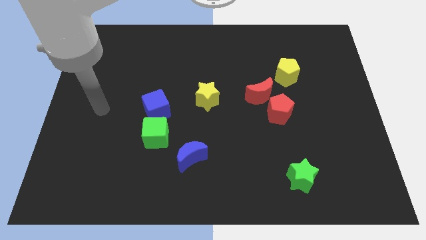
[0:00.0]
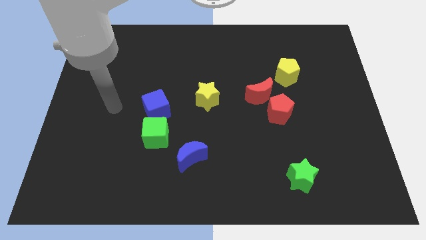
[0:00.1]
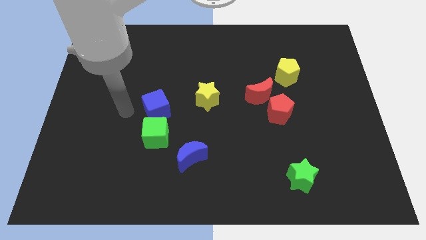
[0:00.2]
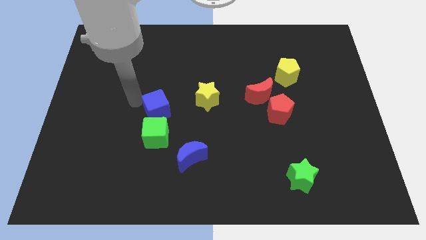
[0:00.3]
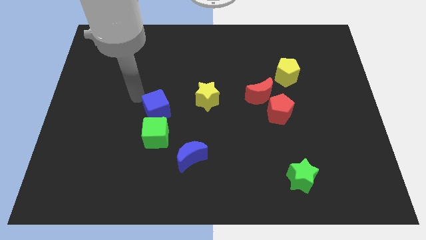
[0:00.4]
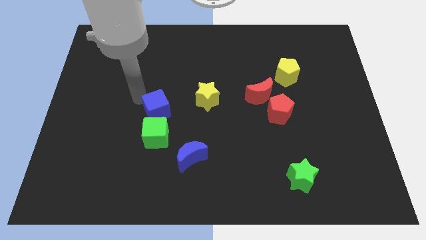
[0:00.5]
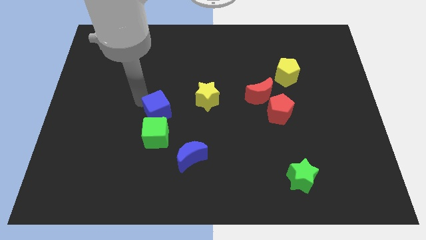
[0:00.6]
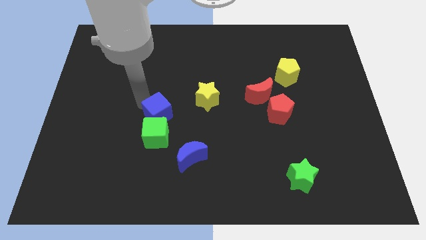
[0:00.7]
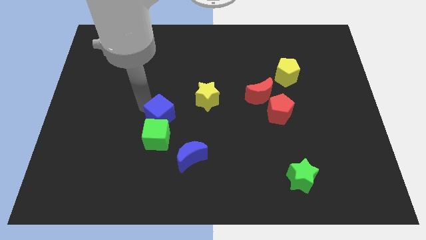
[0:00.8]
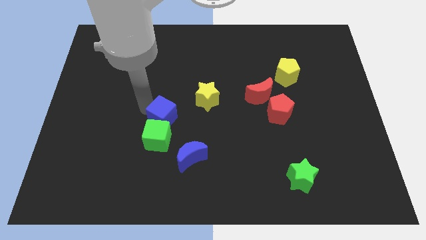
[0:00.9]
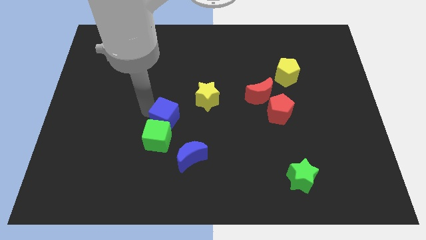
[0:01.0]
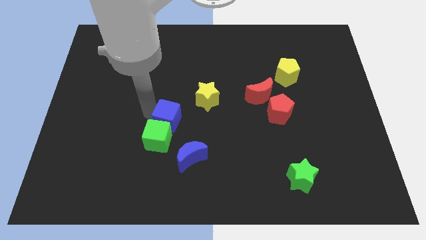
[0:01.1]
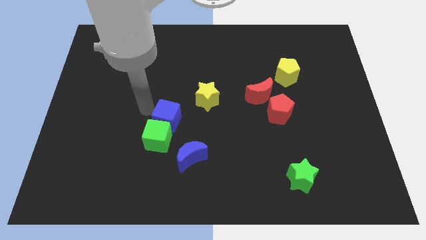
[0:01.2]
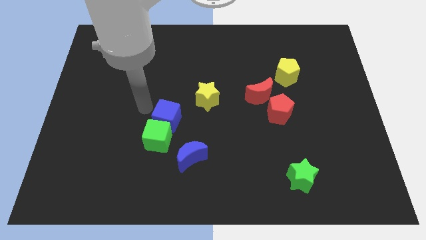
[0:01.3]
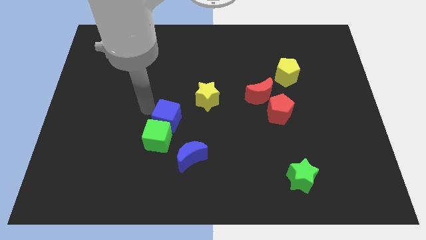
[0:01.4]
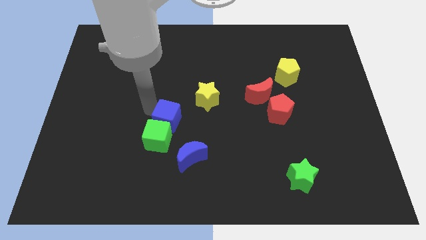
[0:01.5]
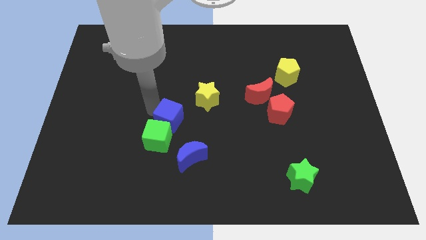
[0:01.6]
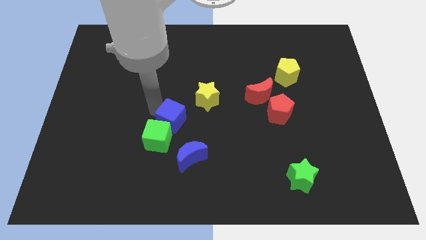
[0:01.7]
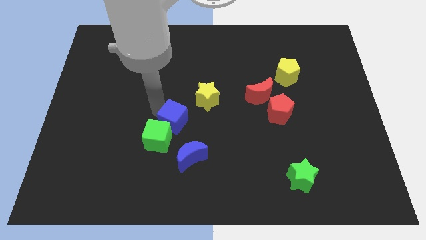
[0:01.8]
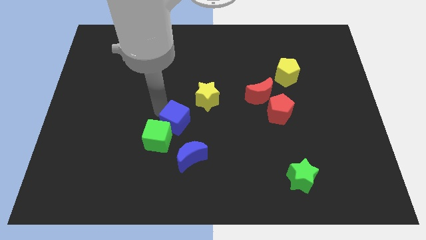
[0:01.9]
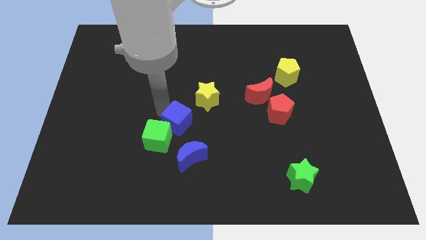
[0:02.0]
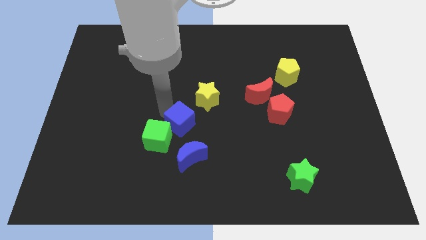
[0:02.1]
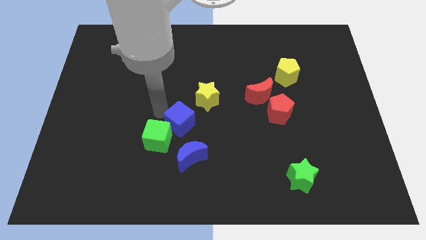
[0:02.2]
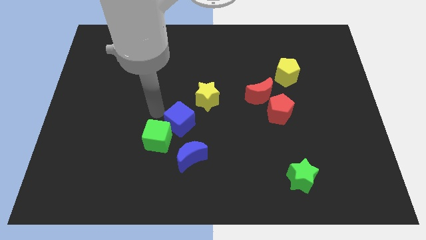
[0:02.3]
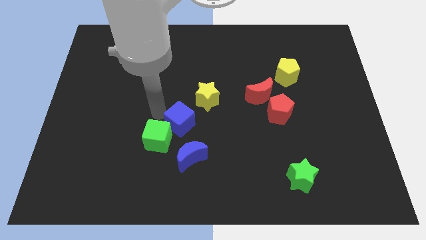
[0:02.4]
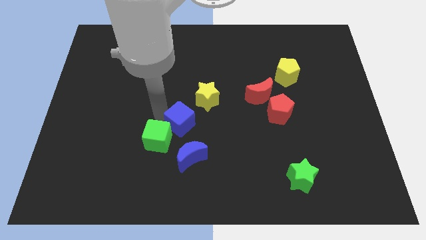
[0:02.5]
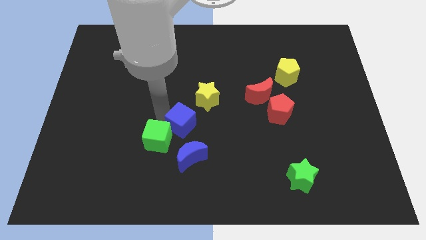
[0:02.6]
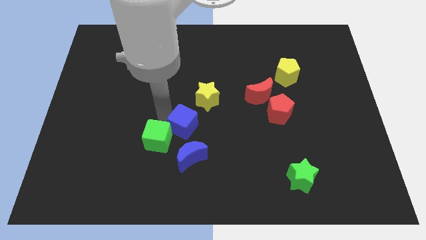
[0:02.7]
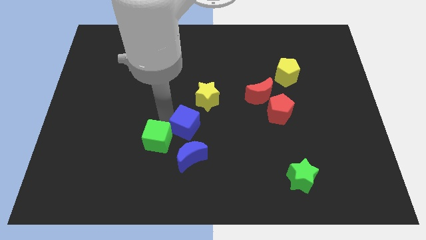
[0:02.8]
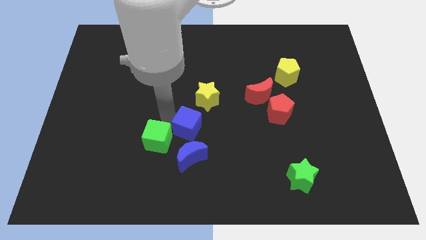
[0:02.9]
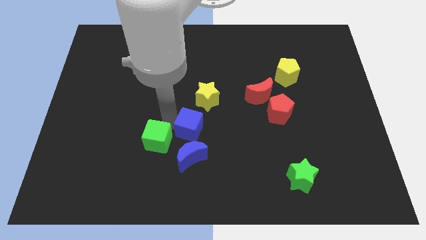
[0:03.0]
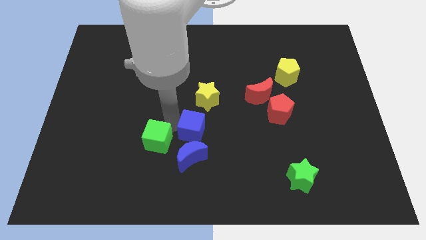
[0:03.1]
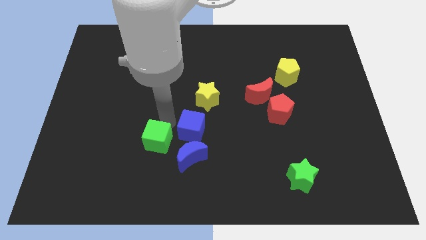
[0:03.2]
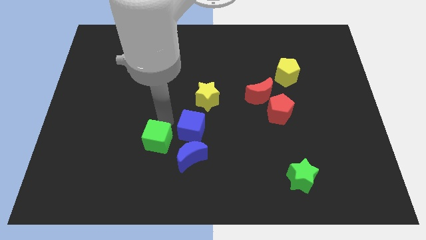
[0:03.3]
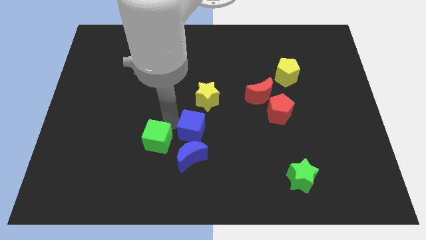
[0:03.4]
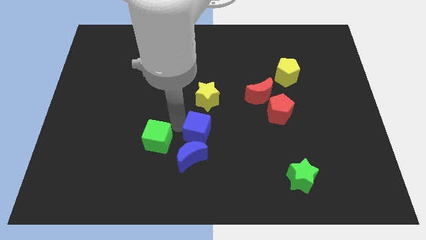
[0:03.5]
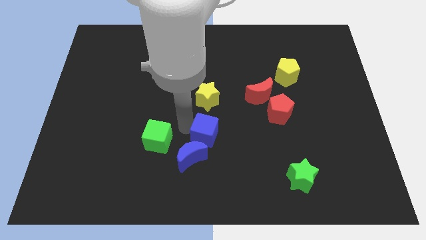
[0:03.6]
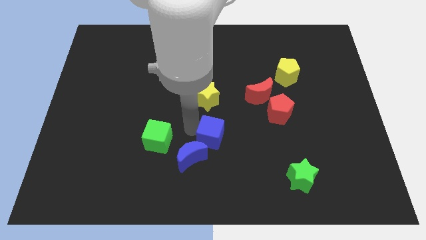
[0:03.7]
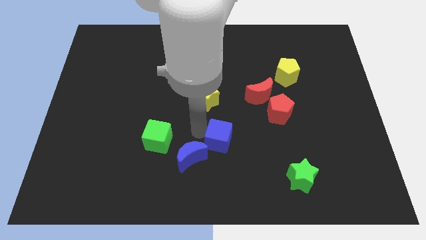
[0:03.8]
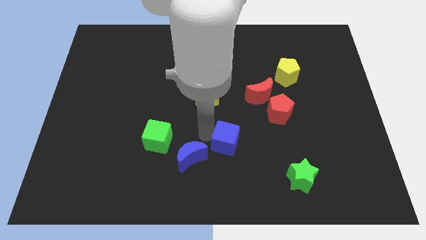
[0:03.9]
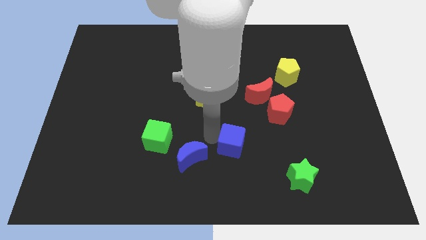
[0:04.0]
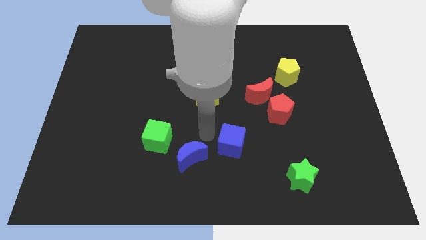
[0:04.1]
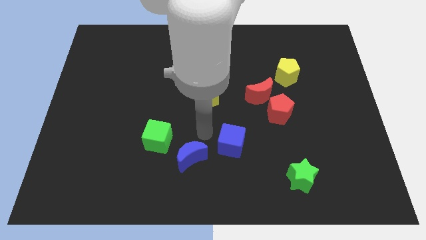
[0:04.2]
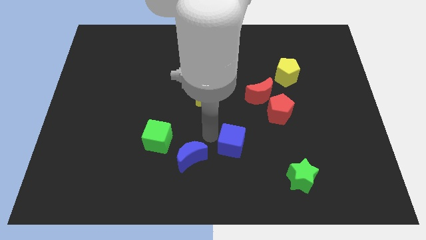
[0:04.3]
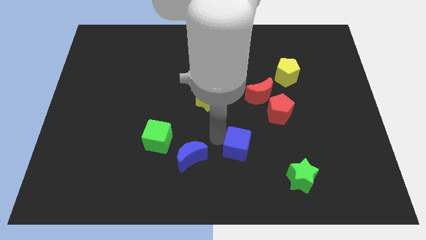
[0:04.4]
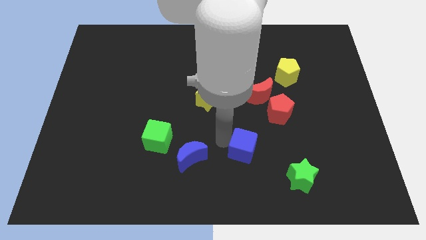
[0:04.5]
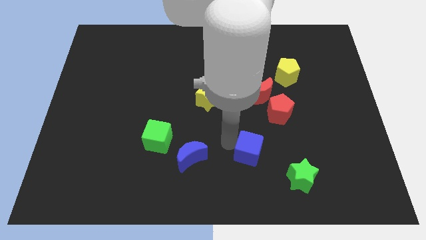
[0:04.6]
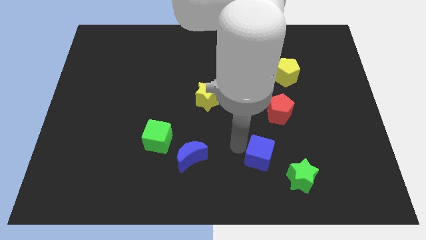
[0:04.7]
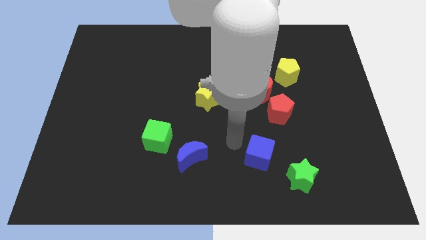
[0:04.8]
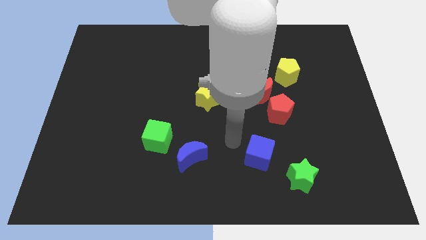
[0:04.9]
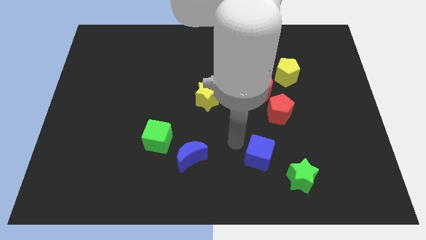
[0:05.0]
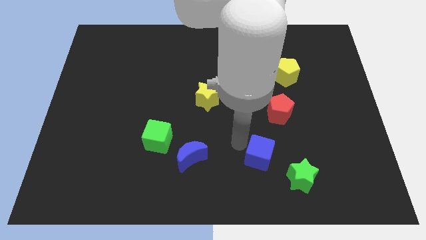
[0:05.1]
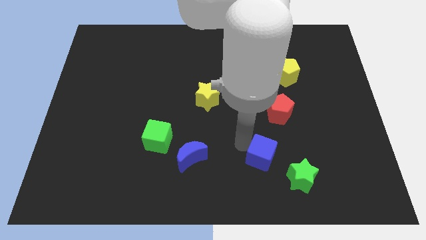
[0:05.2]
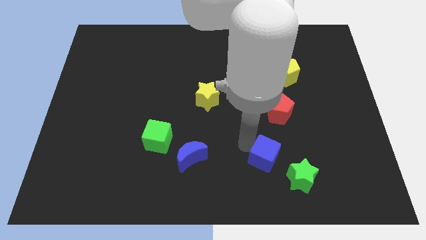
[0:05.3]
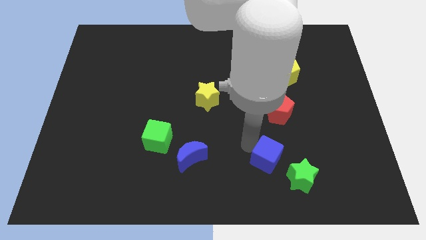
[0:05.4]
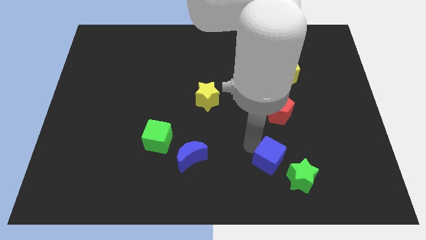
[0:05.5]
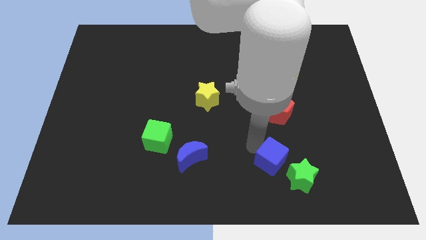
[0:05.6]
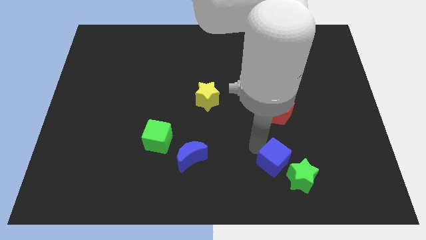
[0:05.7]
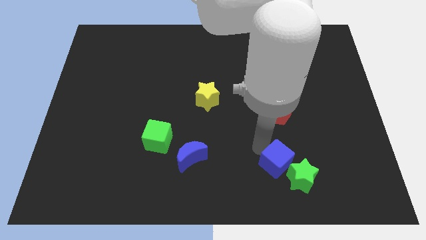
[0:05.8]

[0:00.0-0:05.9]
put the blue cube to the green star

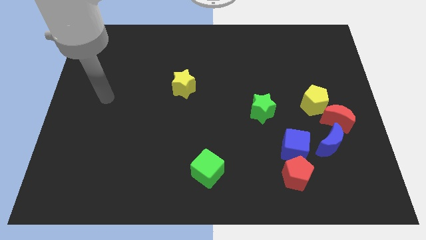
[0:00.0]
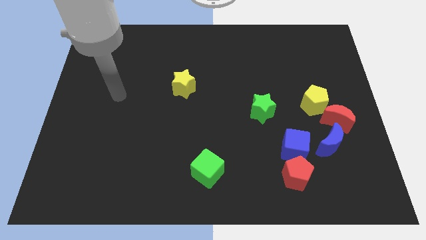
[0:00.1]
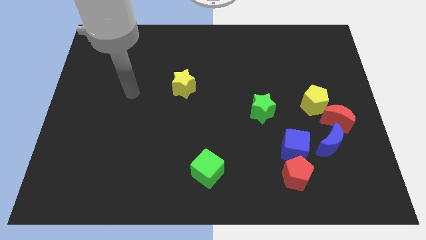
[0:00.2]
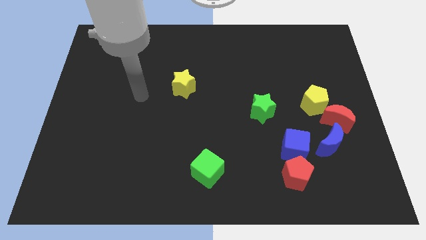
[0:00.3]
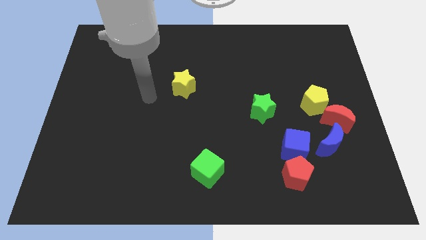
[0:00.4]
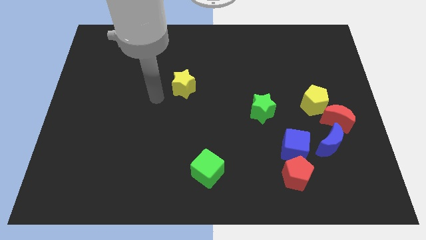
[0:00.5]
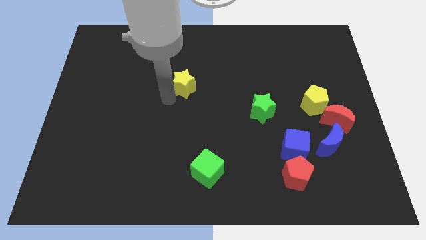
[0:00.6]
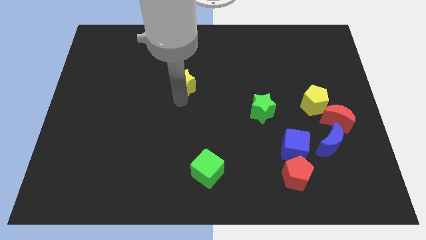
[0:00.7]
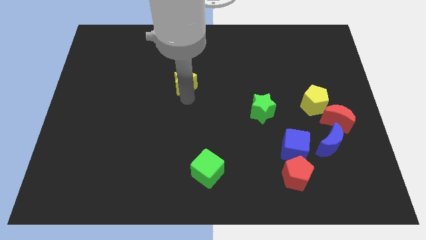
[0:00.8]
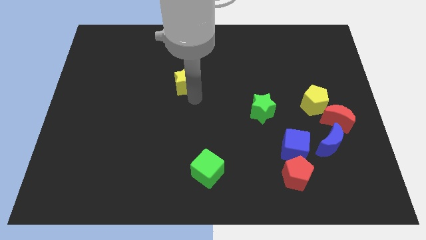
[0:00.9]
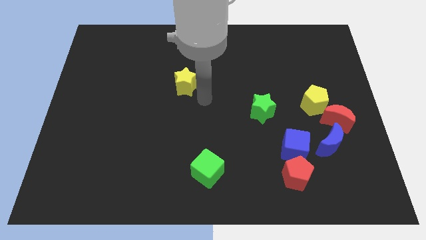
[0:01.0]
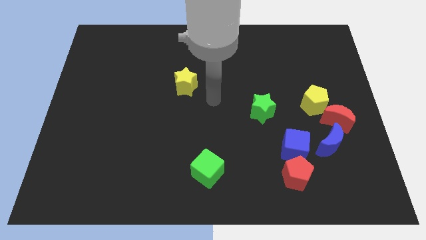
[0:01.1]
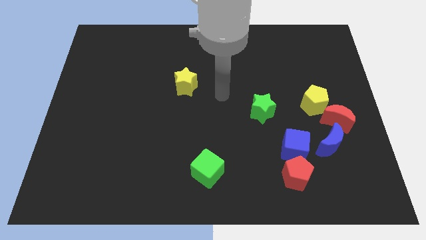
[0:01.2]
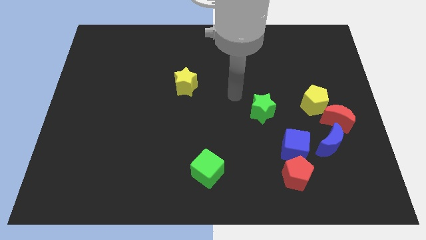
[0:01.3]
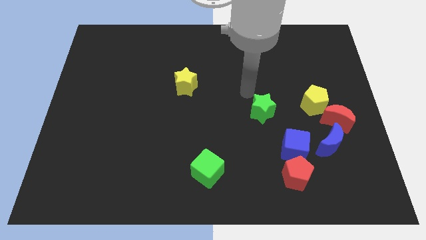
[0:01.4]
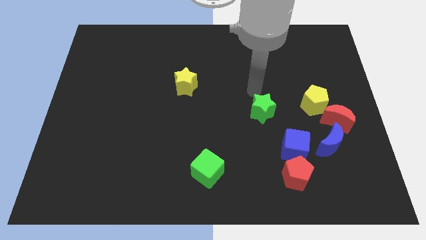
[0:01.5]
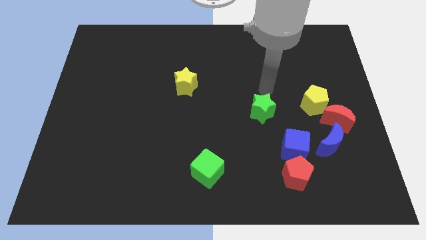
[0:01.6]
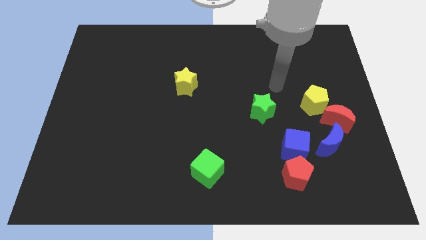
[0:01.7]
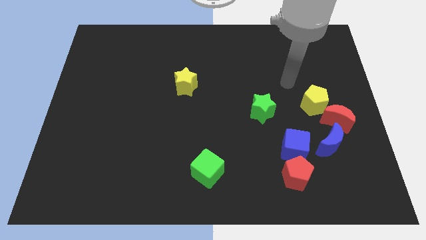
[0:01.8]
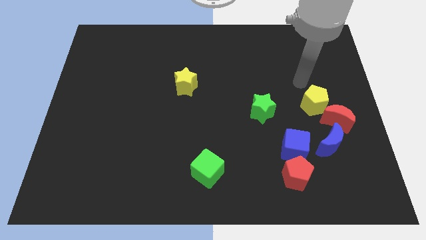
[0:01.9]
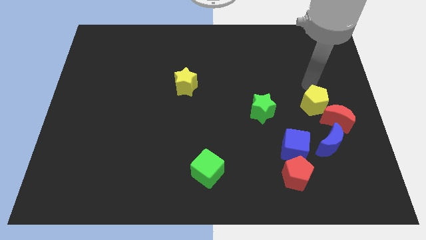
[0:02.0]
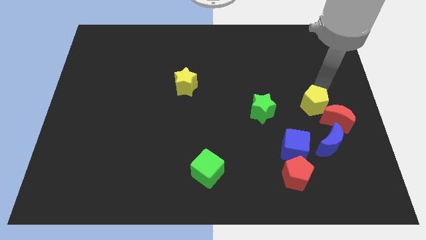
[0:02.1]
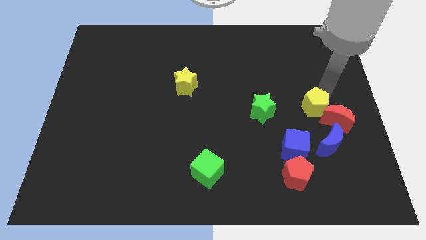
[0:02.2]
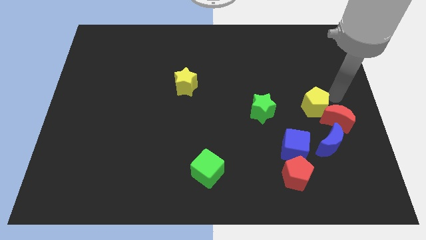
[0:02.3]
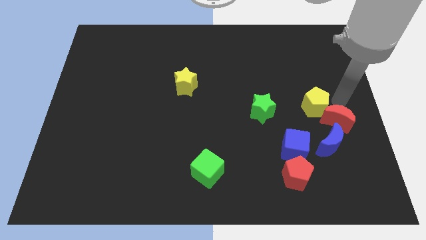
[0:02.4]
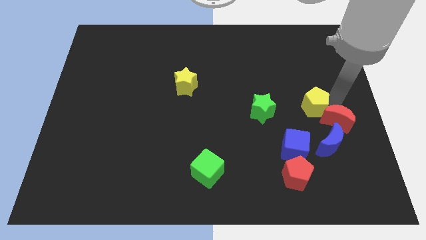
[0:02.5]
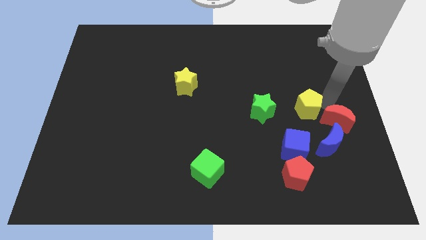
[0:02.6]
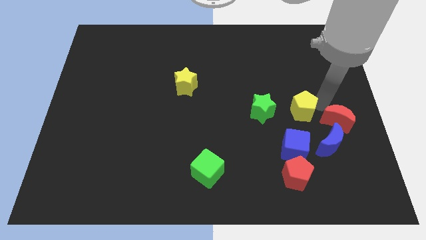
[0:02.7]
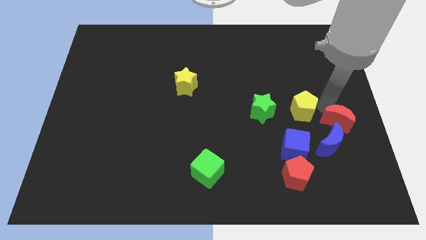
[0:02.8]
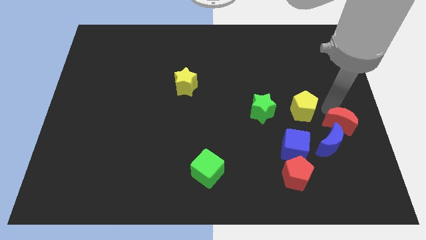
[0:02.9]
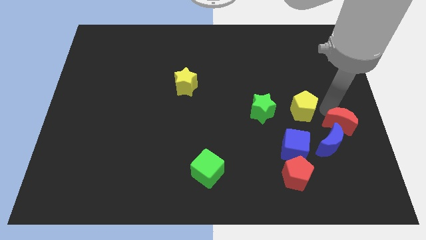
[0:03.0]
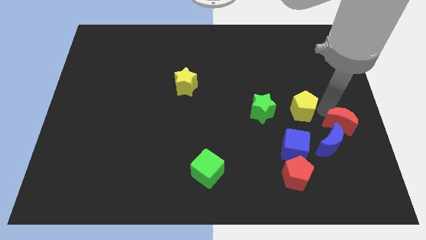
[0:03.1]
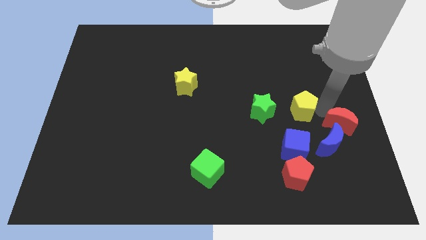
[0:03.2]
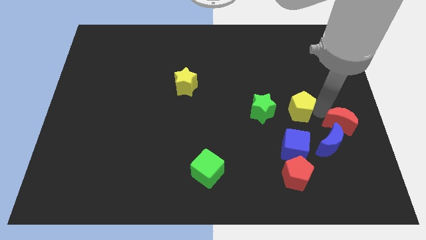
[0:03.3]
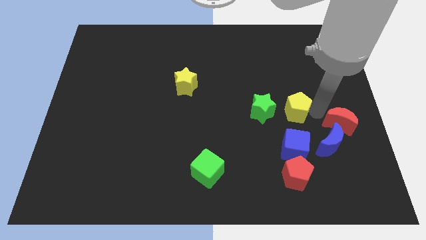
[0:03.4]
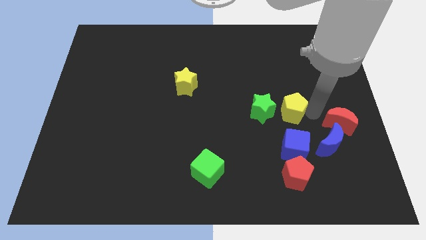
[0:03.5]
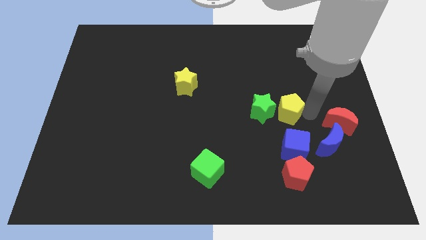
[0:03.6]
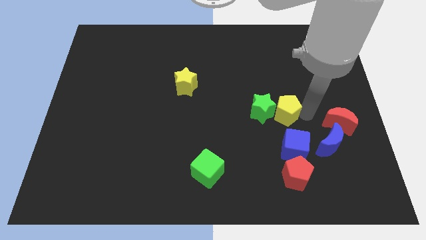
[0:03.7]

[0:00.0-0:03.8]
push the yellow pentagon to the green star
